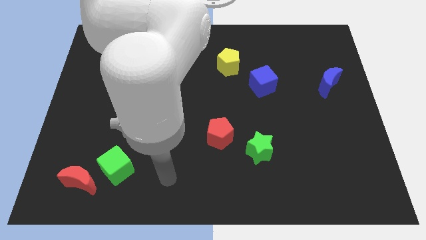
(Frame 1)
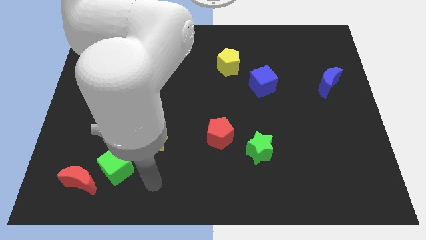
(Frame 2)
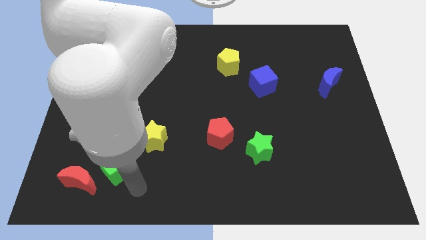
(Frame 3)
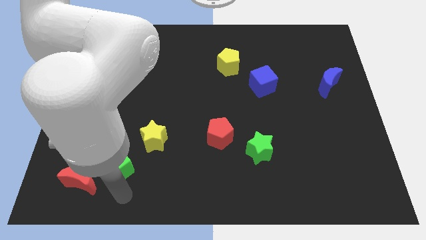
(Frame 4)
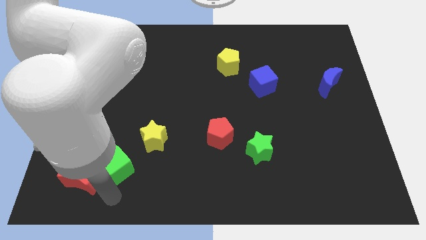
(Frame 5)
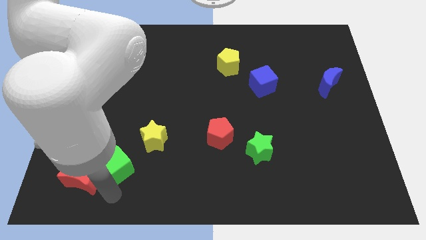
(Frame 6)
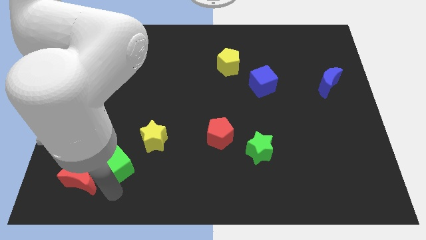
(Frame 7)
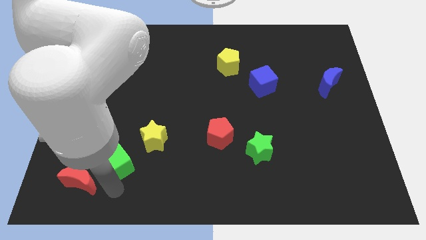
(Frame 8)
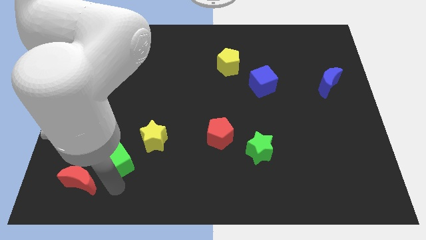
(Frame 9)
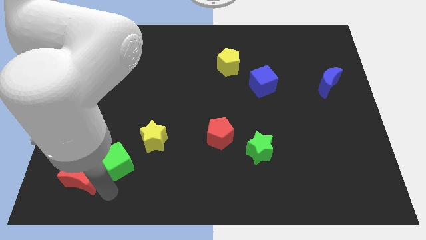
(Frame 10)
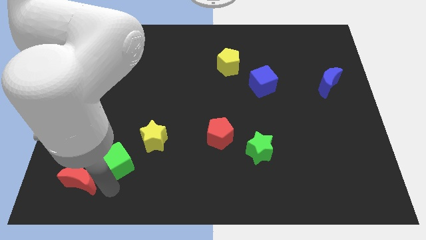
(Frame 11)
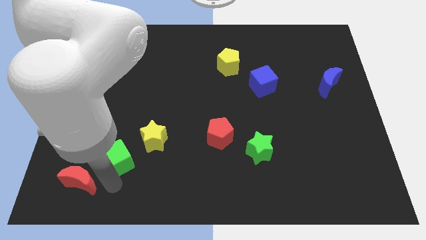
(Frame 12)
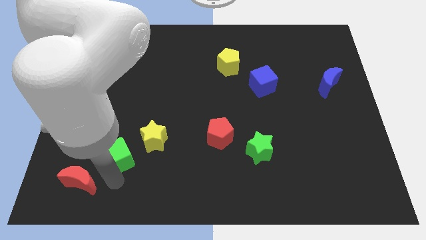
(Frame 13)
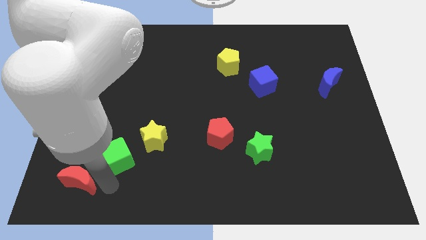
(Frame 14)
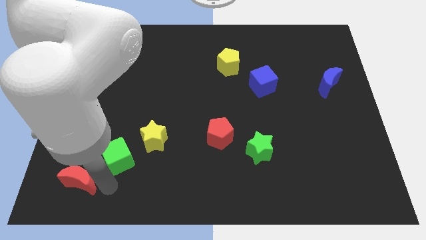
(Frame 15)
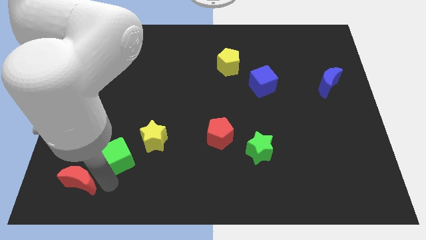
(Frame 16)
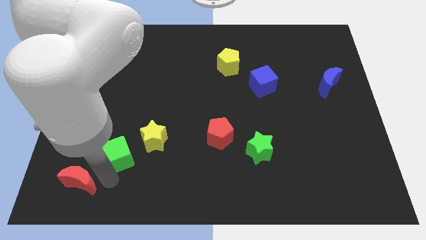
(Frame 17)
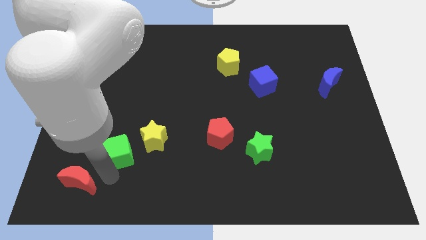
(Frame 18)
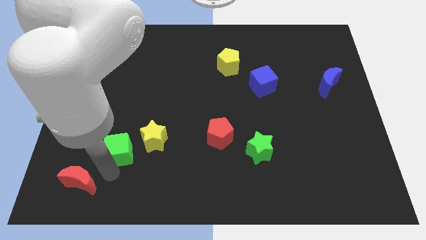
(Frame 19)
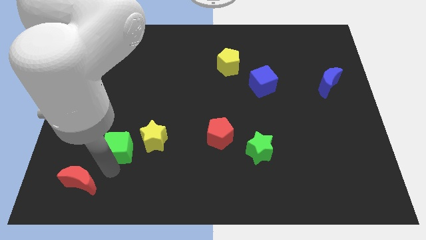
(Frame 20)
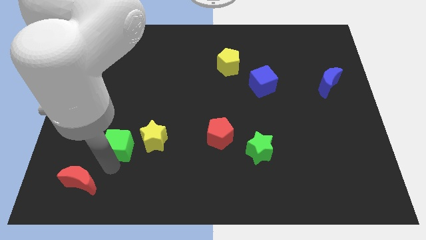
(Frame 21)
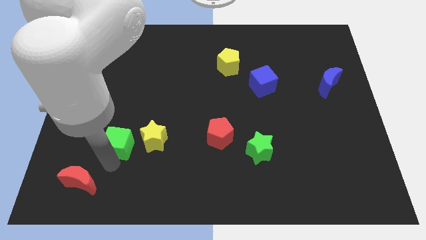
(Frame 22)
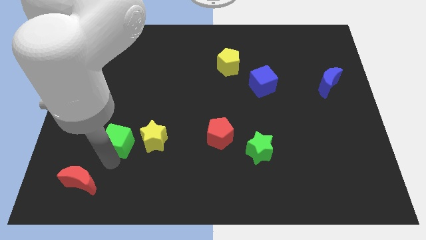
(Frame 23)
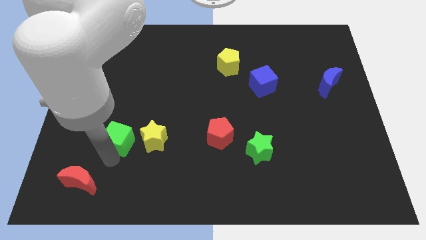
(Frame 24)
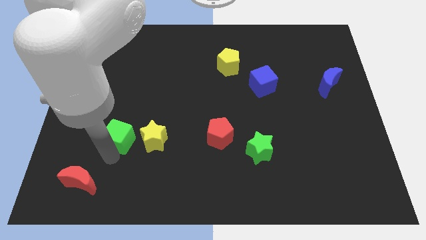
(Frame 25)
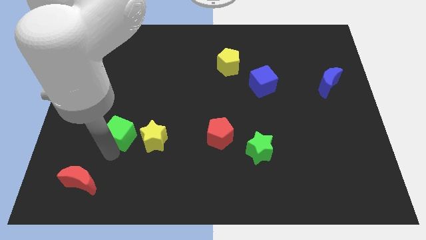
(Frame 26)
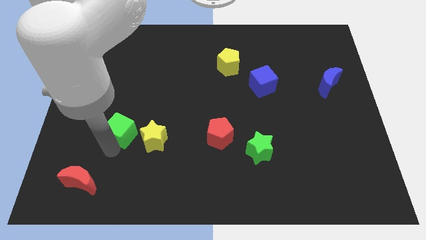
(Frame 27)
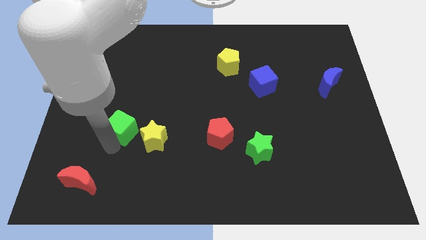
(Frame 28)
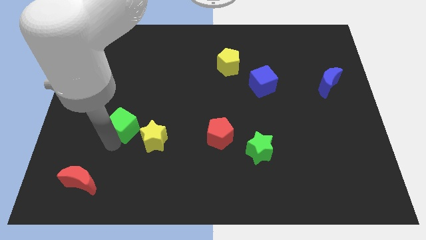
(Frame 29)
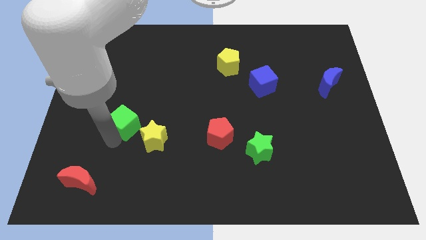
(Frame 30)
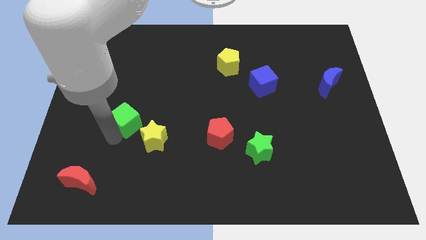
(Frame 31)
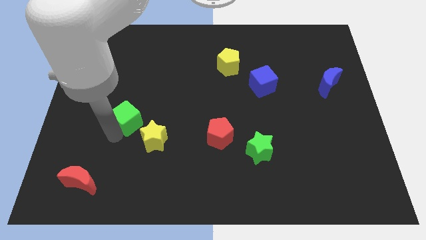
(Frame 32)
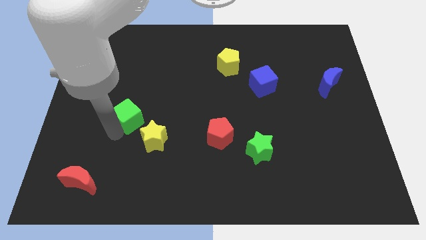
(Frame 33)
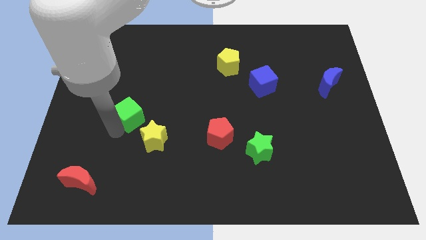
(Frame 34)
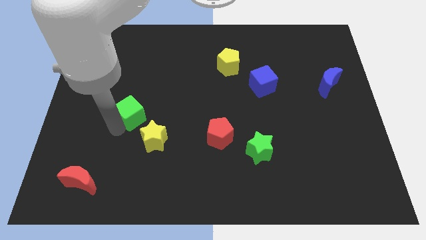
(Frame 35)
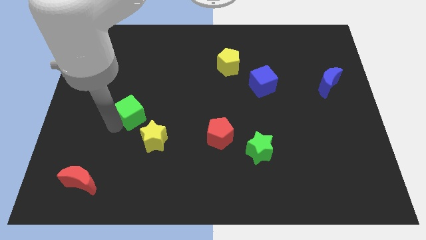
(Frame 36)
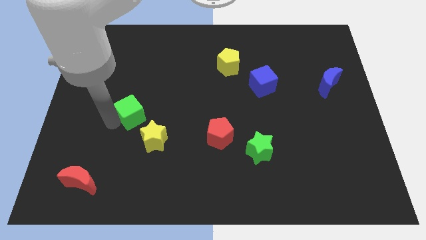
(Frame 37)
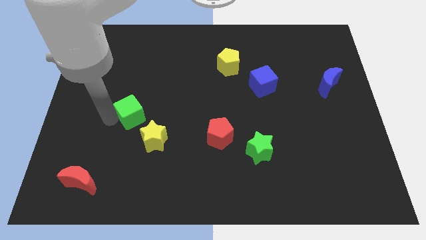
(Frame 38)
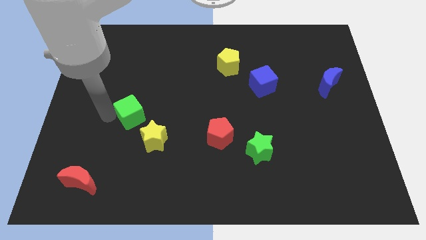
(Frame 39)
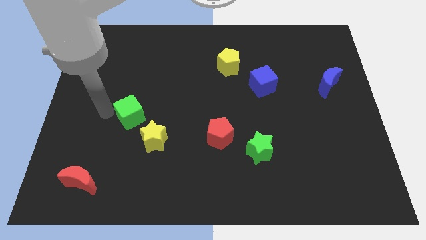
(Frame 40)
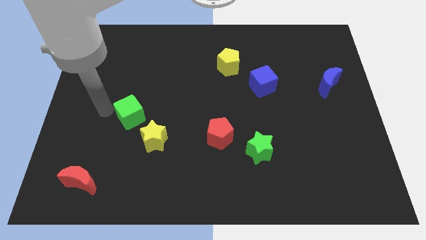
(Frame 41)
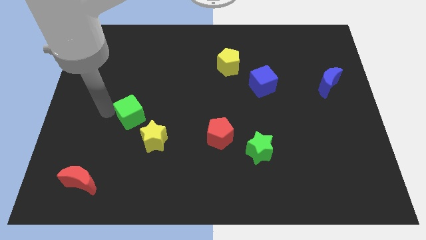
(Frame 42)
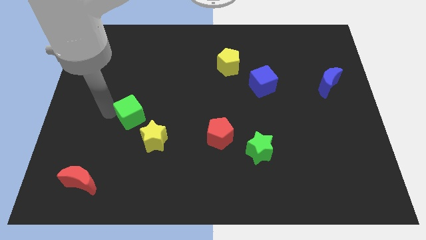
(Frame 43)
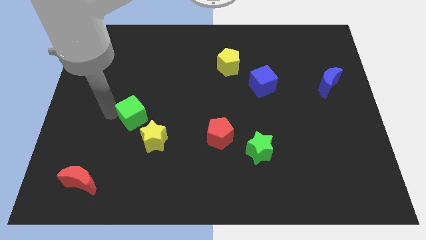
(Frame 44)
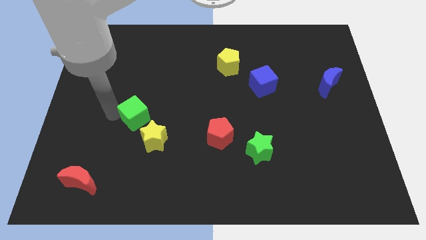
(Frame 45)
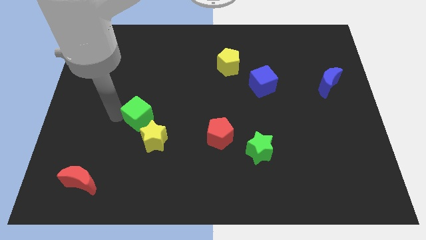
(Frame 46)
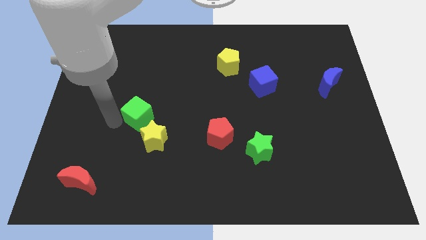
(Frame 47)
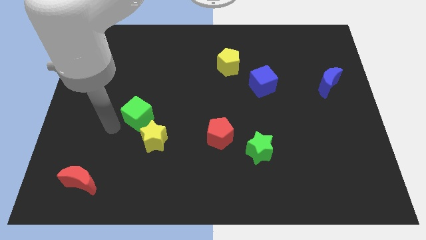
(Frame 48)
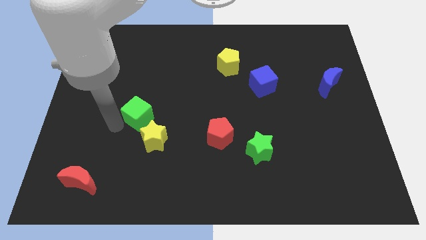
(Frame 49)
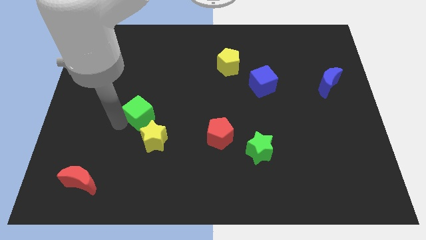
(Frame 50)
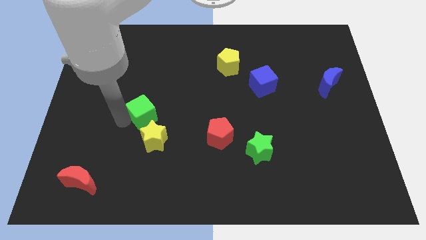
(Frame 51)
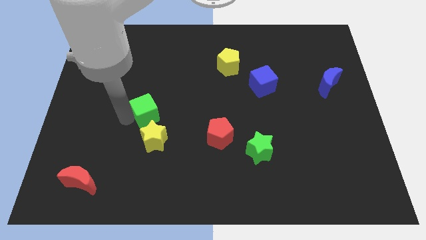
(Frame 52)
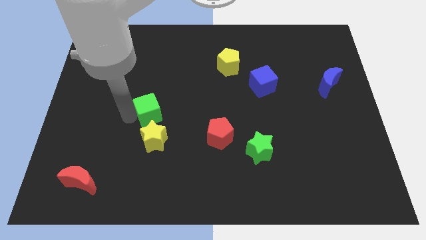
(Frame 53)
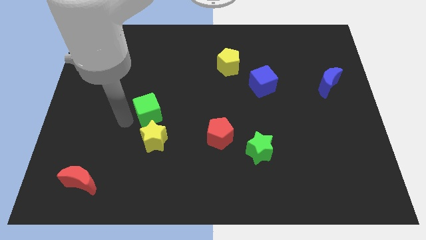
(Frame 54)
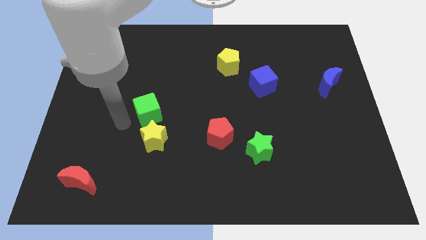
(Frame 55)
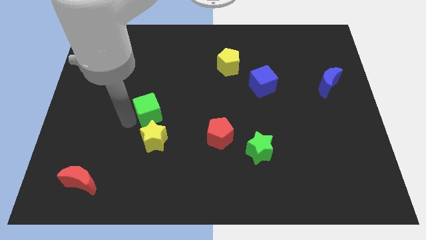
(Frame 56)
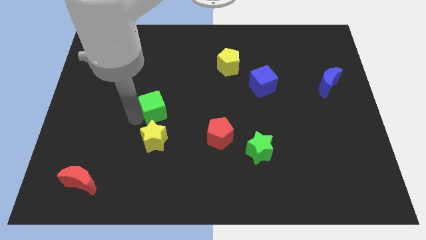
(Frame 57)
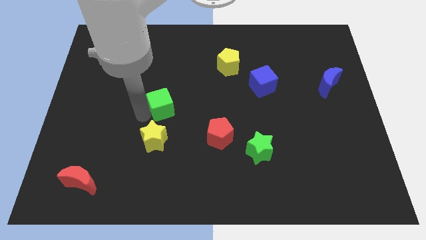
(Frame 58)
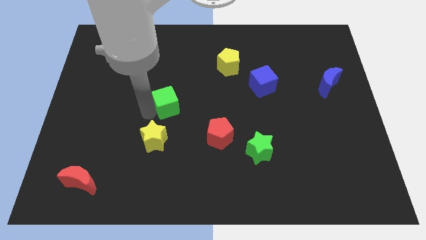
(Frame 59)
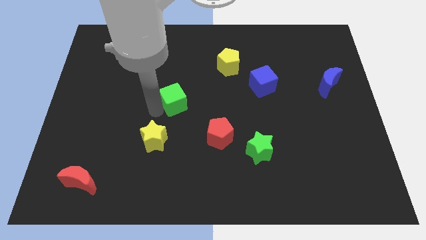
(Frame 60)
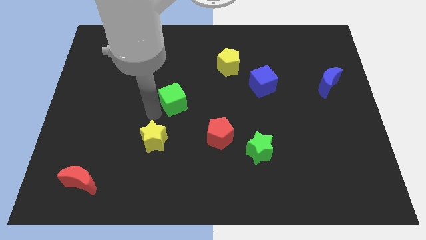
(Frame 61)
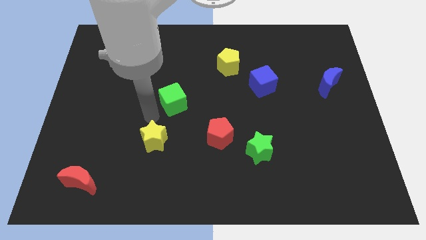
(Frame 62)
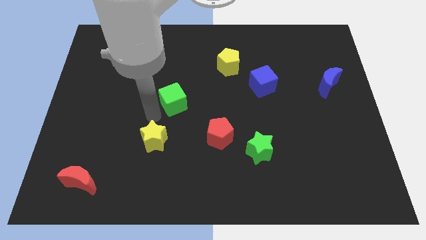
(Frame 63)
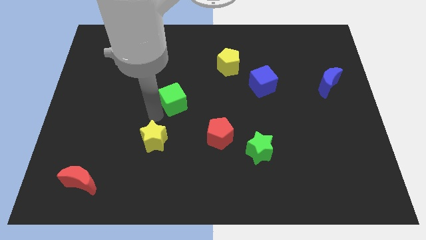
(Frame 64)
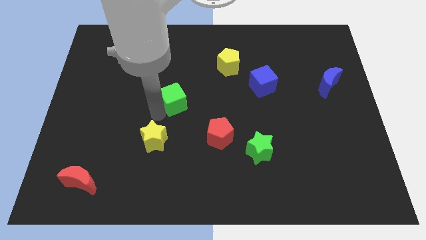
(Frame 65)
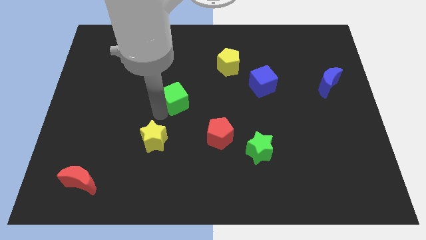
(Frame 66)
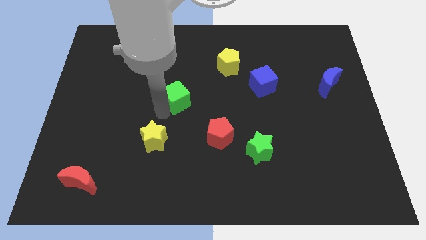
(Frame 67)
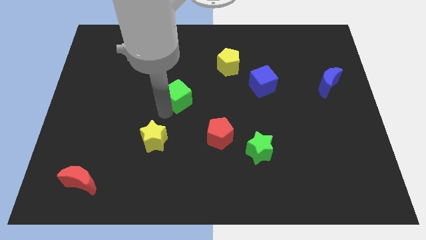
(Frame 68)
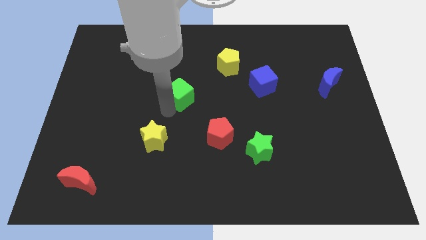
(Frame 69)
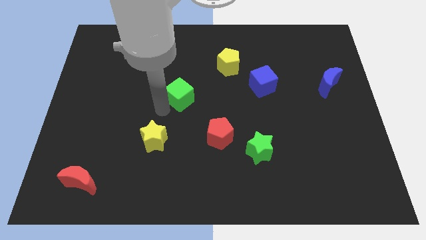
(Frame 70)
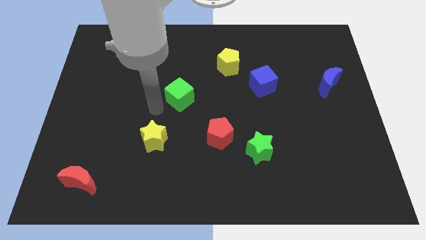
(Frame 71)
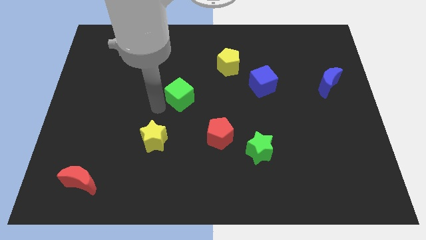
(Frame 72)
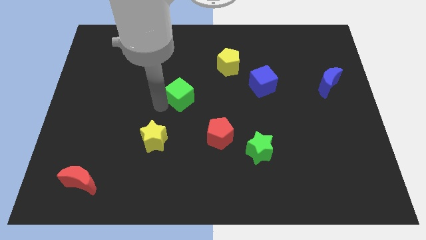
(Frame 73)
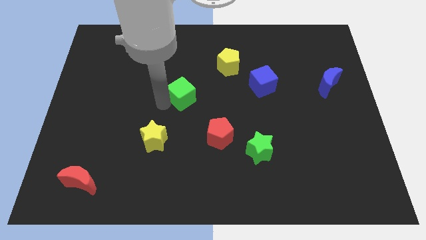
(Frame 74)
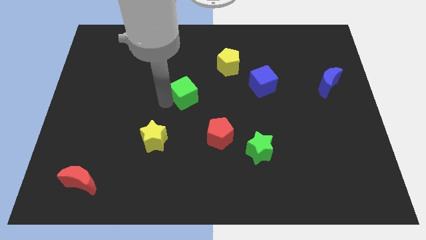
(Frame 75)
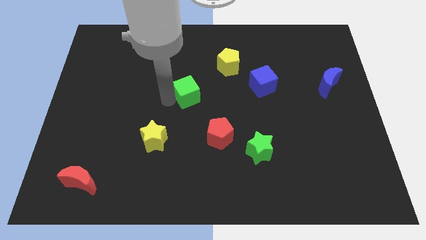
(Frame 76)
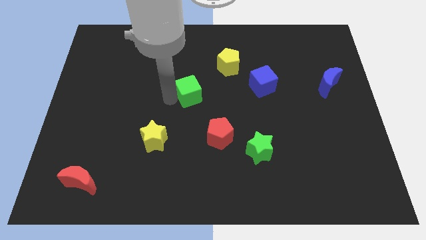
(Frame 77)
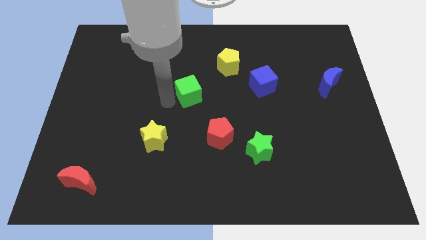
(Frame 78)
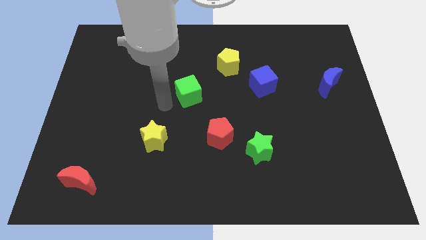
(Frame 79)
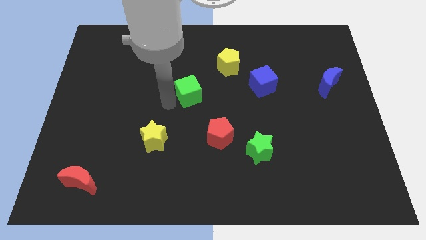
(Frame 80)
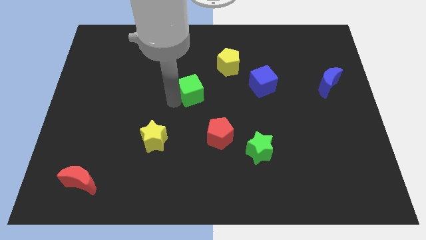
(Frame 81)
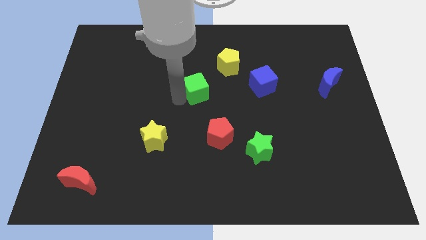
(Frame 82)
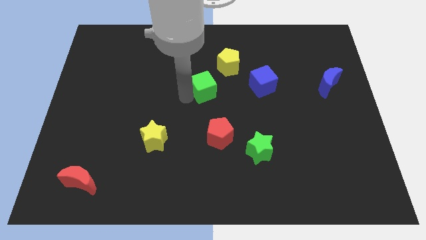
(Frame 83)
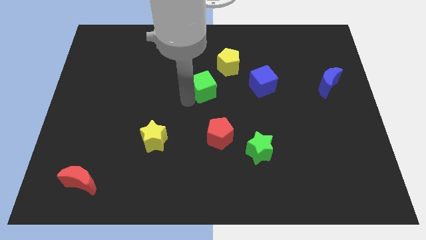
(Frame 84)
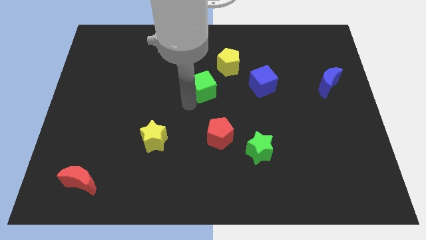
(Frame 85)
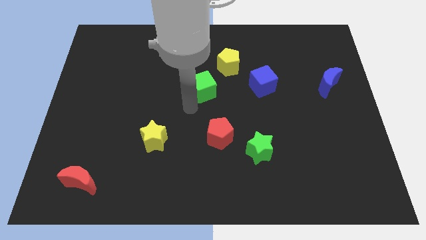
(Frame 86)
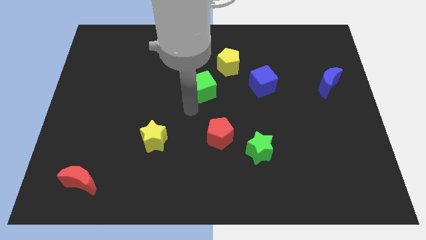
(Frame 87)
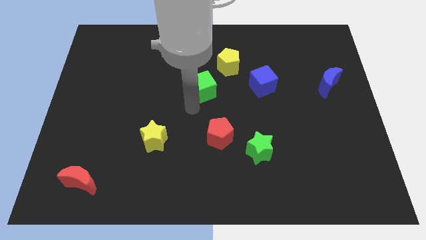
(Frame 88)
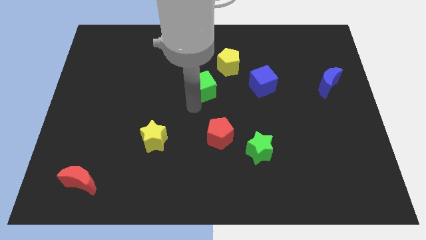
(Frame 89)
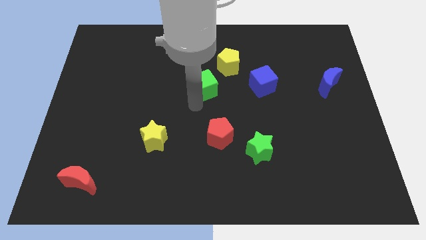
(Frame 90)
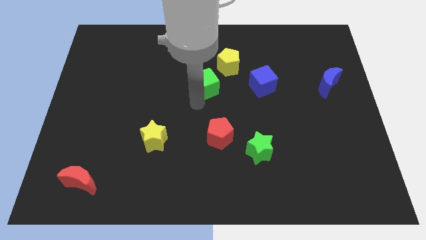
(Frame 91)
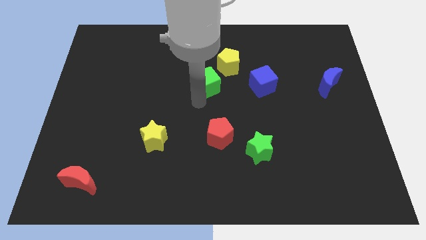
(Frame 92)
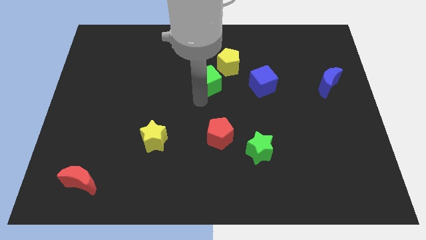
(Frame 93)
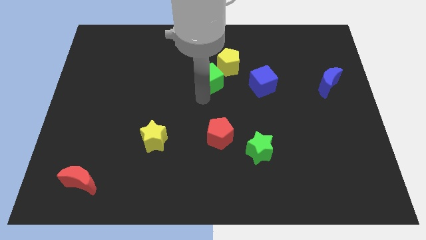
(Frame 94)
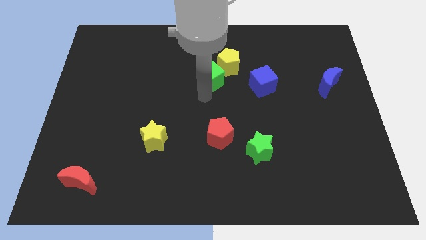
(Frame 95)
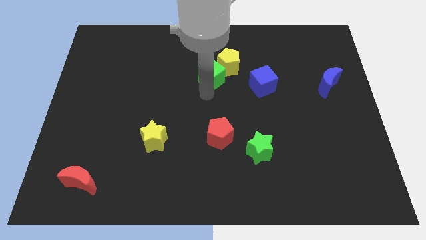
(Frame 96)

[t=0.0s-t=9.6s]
move the green cube next to the yellow pentagon
